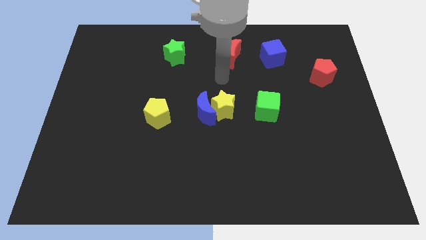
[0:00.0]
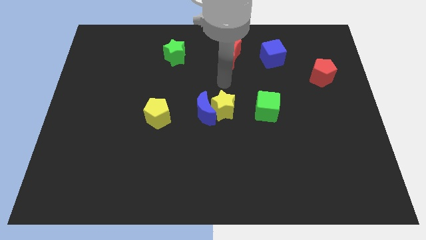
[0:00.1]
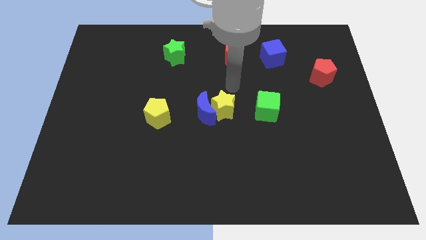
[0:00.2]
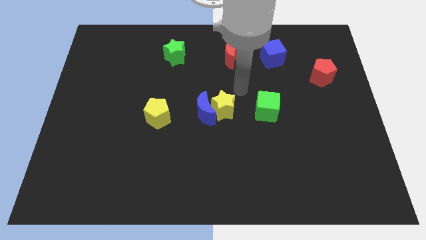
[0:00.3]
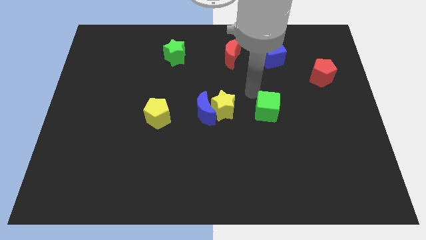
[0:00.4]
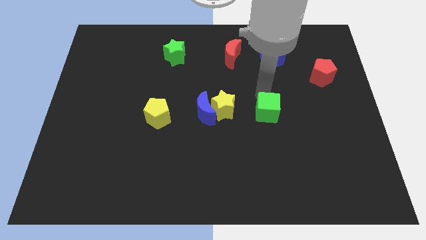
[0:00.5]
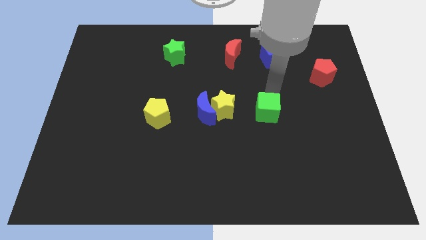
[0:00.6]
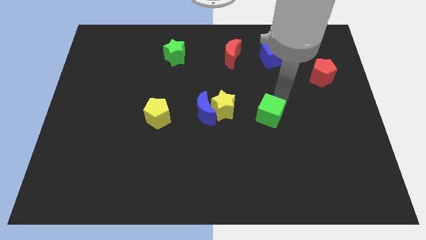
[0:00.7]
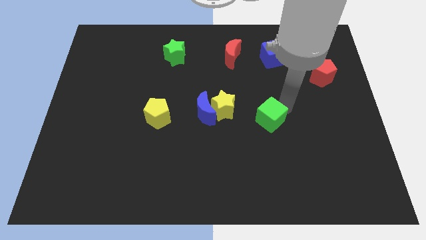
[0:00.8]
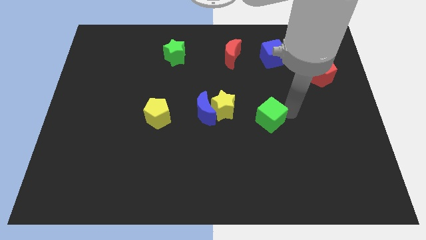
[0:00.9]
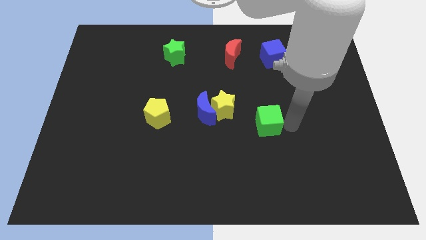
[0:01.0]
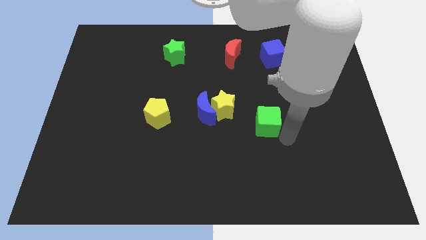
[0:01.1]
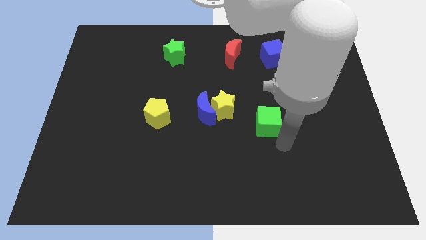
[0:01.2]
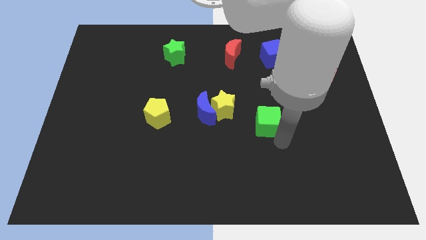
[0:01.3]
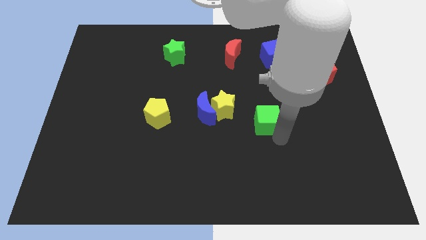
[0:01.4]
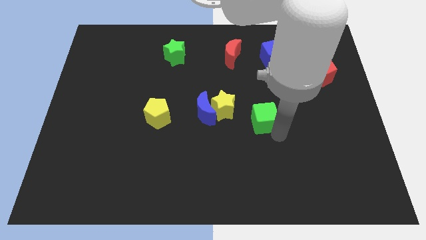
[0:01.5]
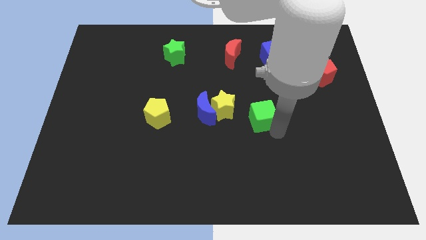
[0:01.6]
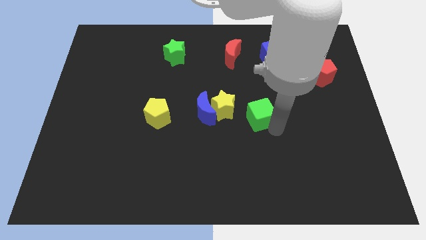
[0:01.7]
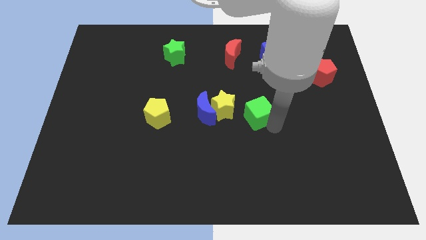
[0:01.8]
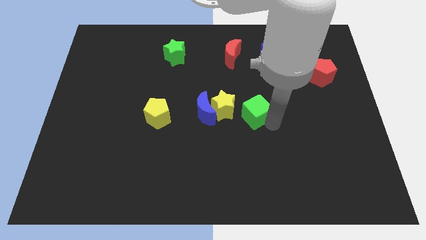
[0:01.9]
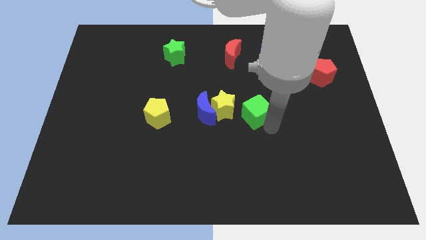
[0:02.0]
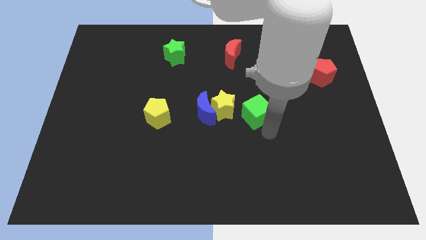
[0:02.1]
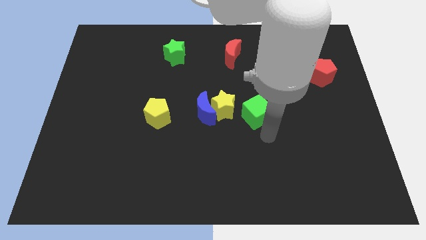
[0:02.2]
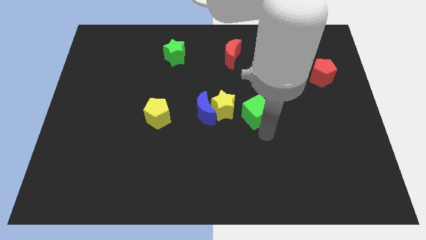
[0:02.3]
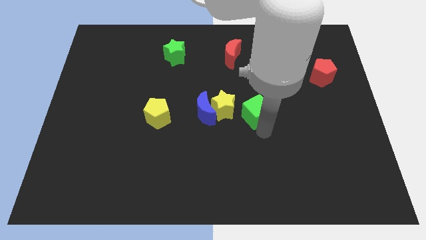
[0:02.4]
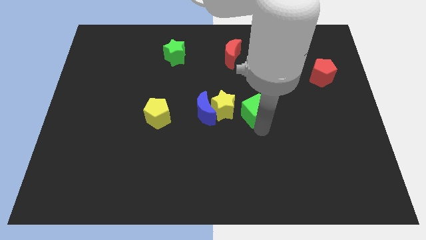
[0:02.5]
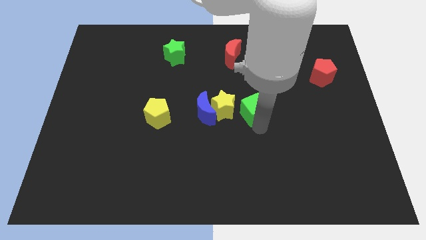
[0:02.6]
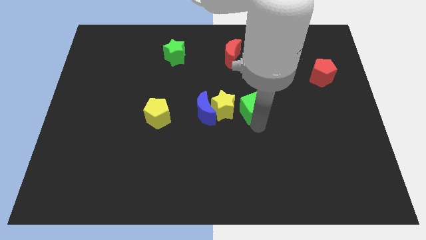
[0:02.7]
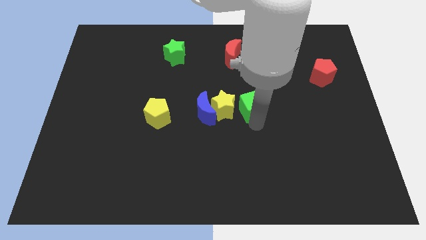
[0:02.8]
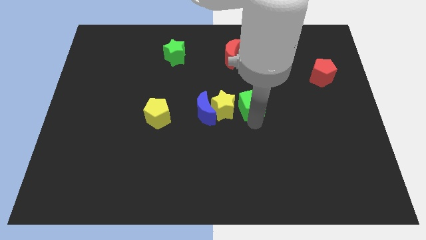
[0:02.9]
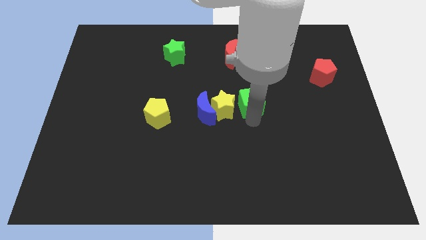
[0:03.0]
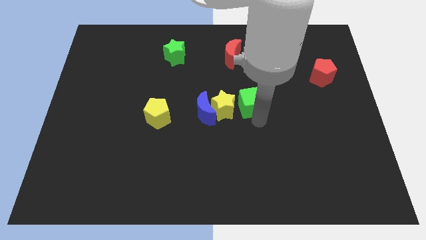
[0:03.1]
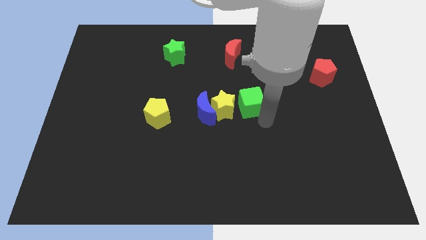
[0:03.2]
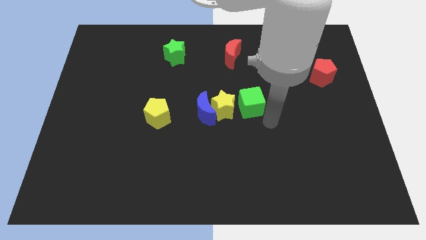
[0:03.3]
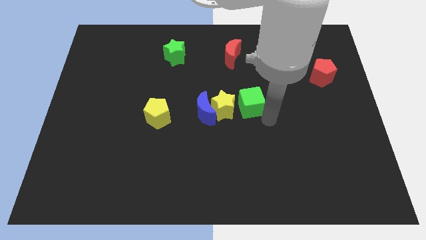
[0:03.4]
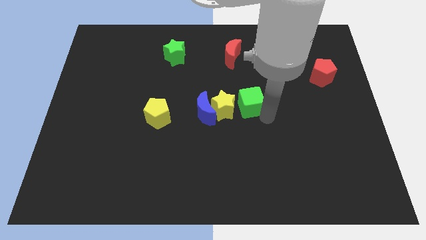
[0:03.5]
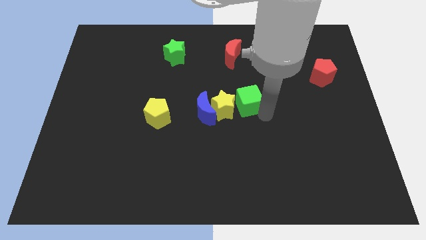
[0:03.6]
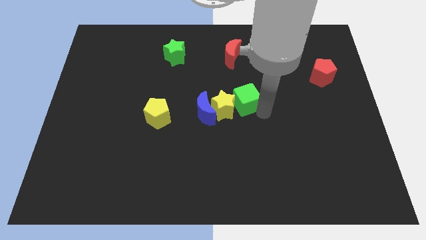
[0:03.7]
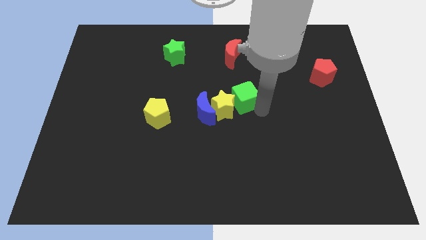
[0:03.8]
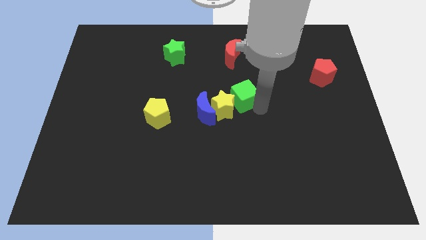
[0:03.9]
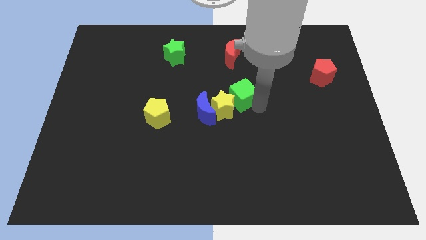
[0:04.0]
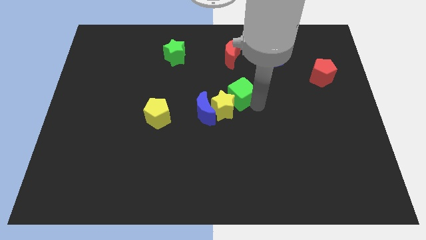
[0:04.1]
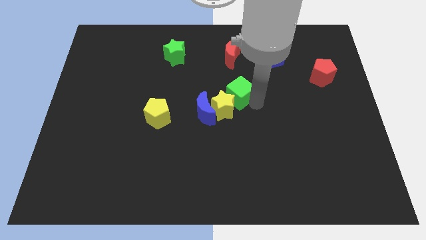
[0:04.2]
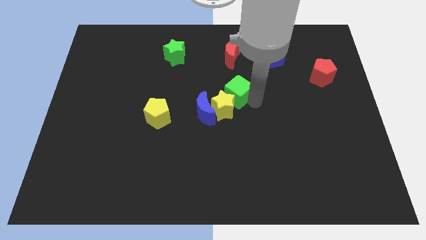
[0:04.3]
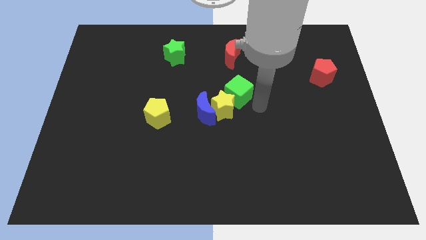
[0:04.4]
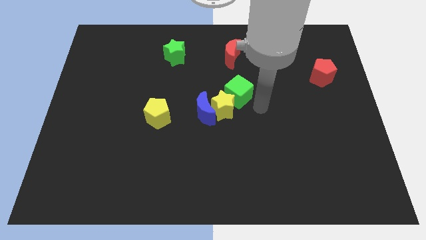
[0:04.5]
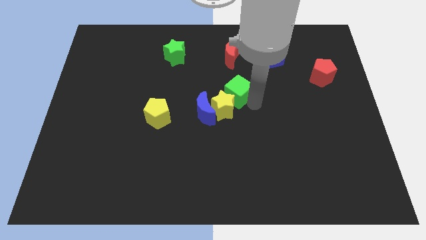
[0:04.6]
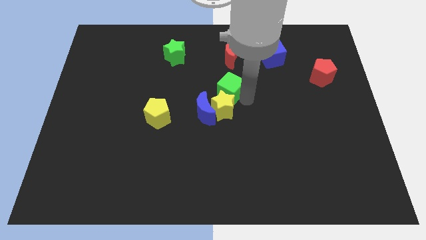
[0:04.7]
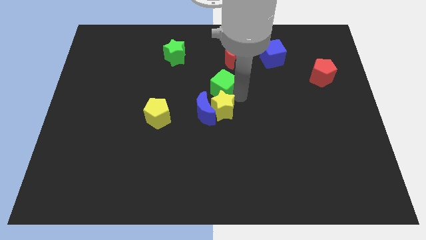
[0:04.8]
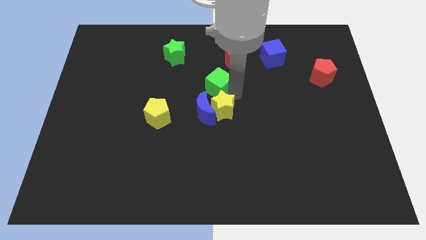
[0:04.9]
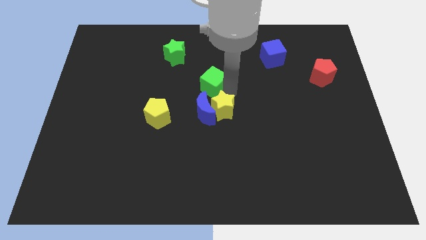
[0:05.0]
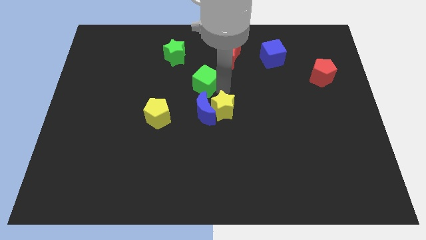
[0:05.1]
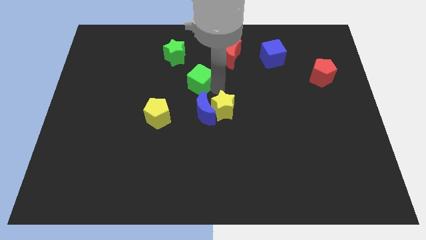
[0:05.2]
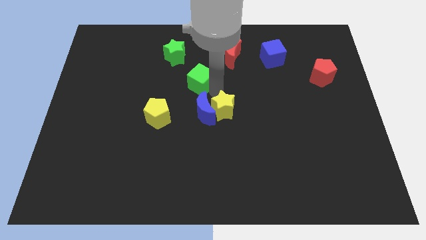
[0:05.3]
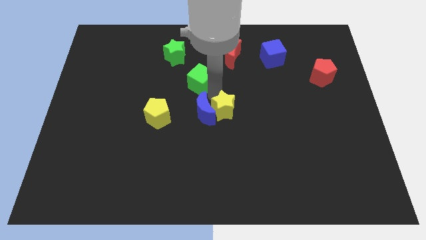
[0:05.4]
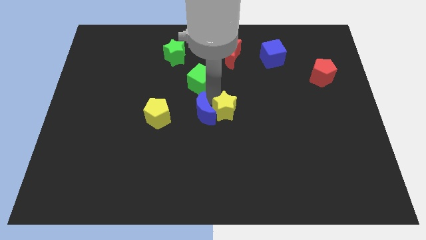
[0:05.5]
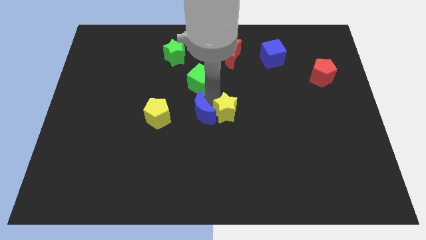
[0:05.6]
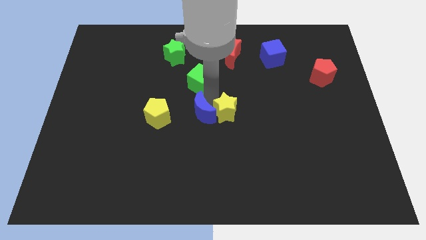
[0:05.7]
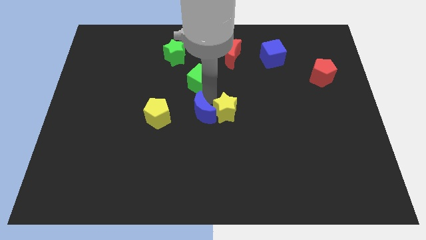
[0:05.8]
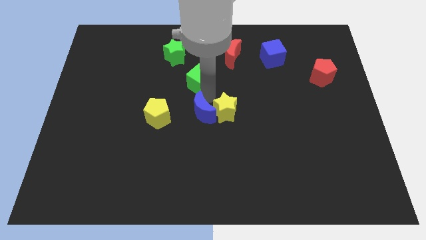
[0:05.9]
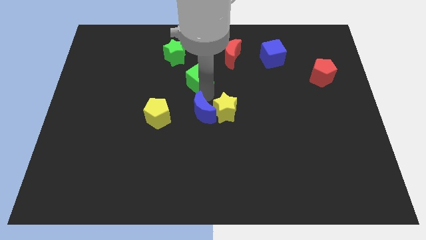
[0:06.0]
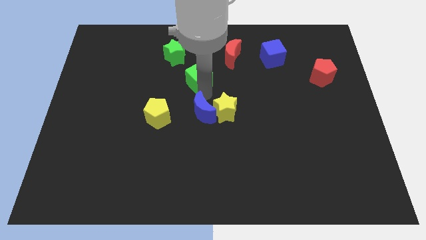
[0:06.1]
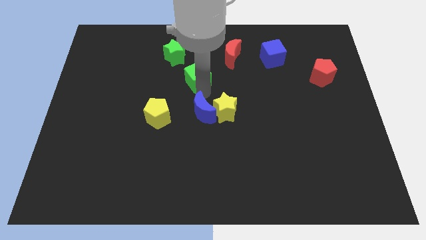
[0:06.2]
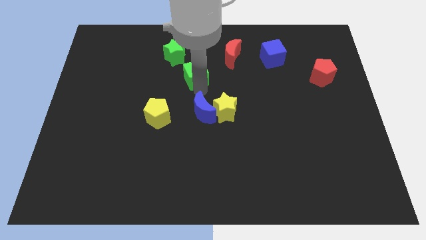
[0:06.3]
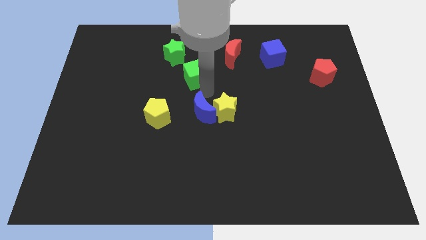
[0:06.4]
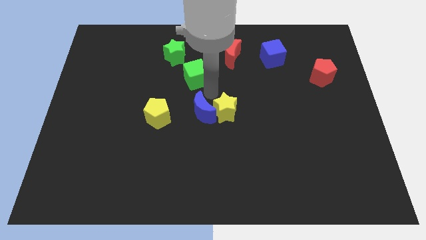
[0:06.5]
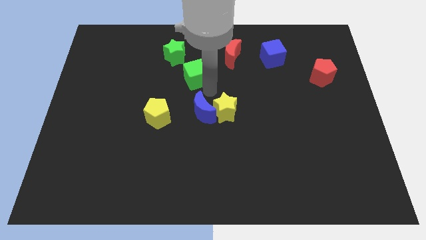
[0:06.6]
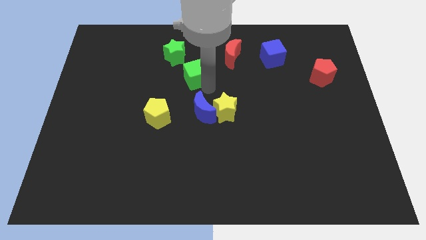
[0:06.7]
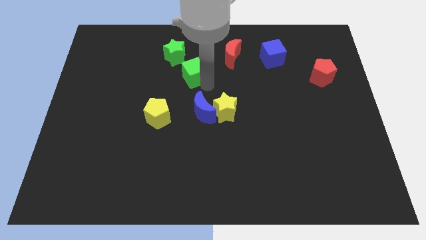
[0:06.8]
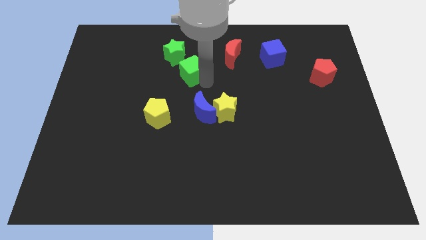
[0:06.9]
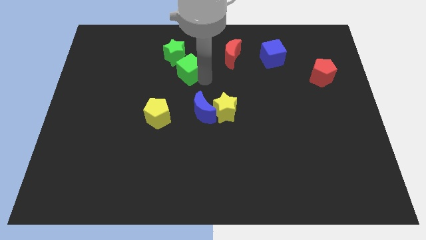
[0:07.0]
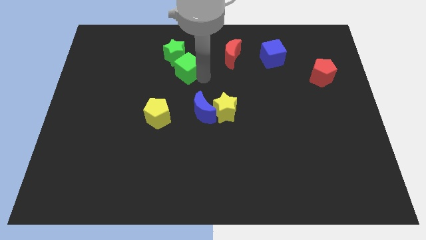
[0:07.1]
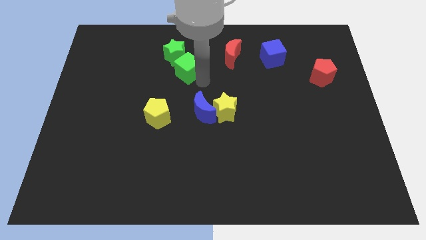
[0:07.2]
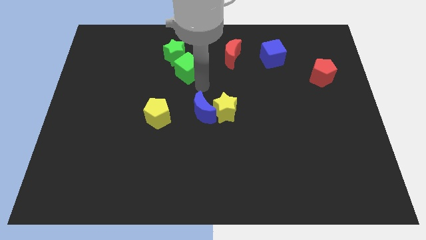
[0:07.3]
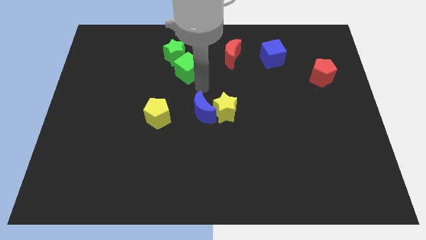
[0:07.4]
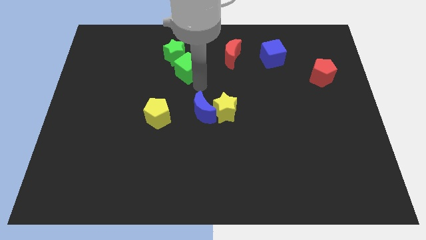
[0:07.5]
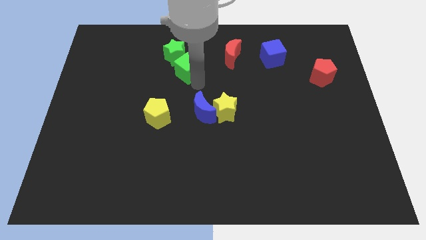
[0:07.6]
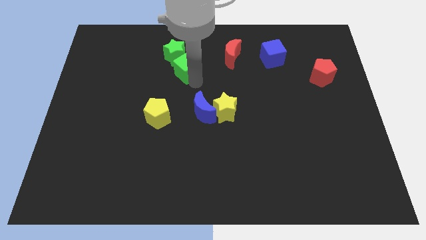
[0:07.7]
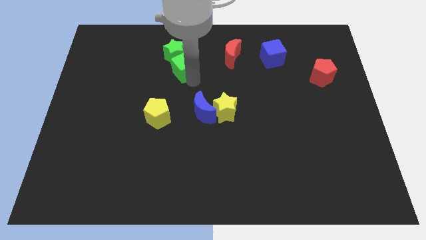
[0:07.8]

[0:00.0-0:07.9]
slide the green cube towards the green star
